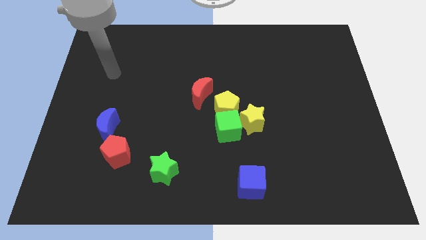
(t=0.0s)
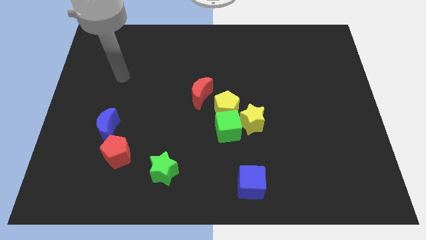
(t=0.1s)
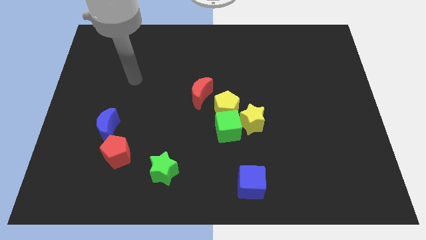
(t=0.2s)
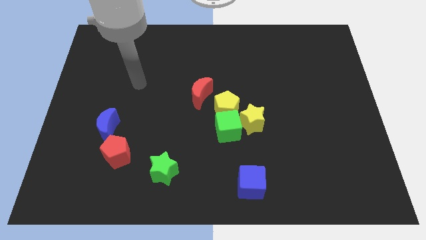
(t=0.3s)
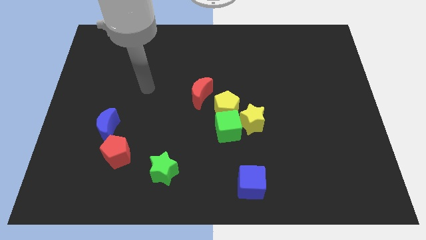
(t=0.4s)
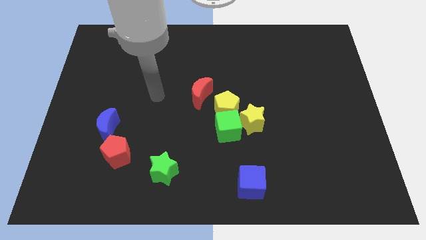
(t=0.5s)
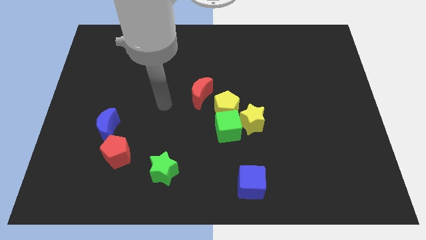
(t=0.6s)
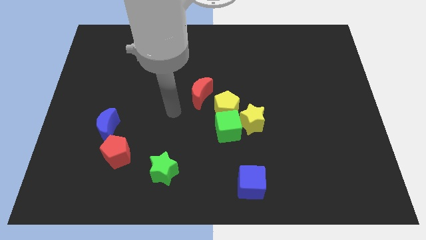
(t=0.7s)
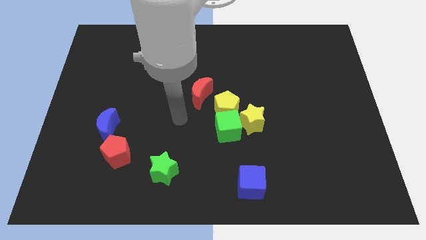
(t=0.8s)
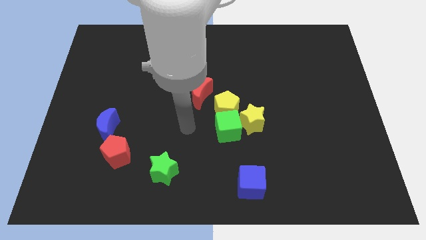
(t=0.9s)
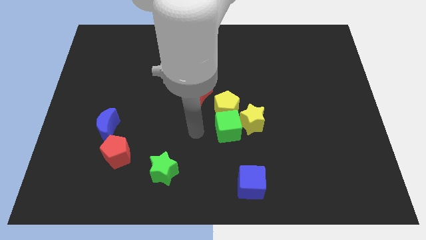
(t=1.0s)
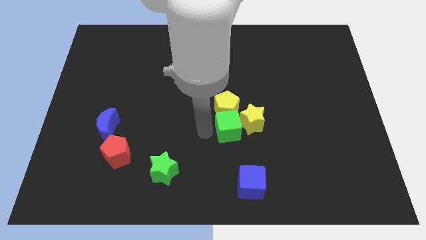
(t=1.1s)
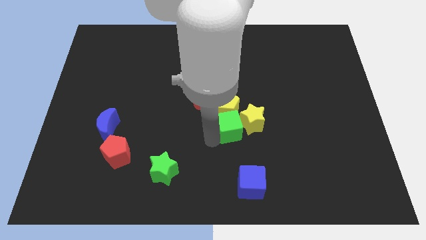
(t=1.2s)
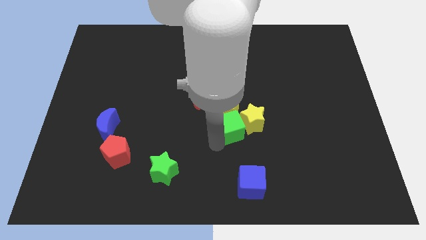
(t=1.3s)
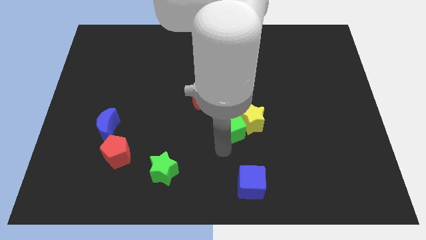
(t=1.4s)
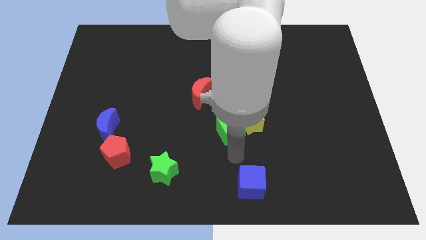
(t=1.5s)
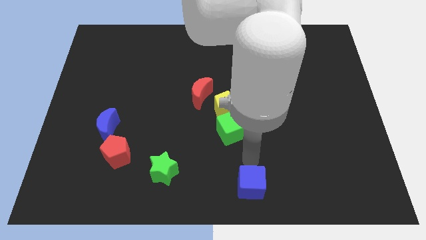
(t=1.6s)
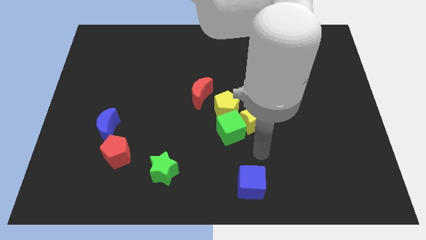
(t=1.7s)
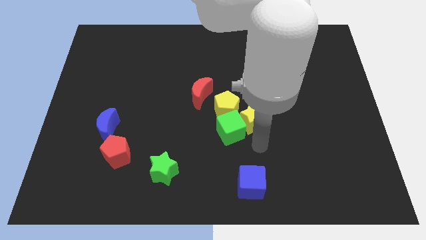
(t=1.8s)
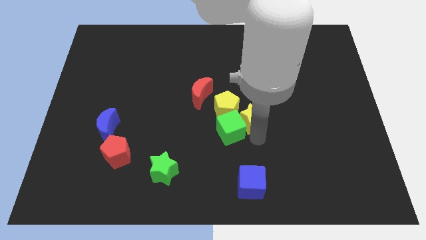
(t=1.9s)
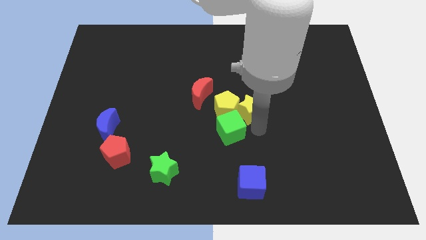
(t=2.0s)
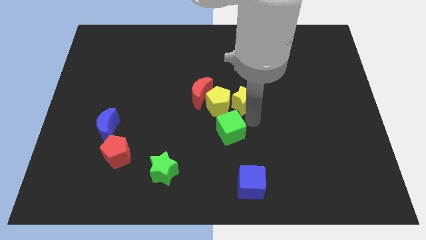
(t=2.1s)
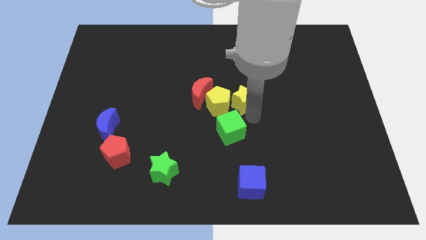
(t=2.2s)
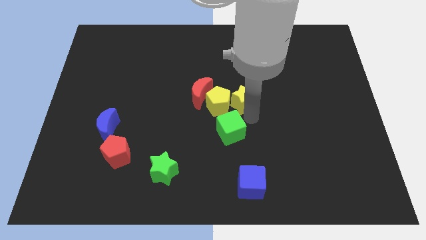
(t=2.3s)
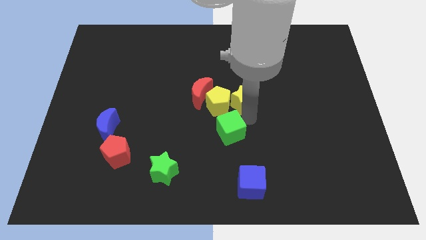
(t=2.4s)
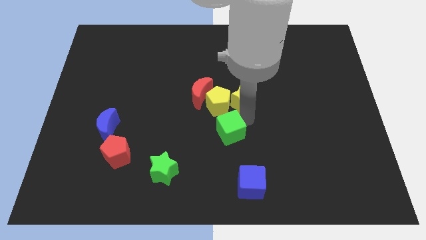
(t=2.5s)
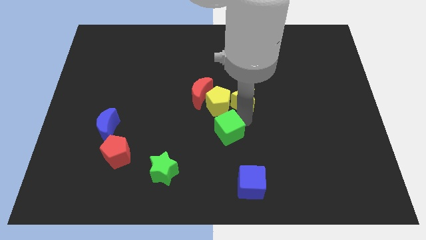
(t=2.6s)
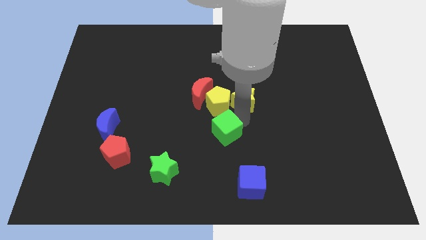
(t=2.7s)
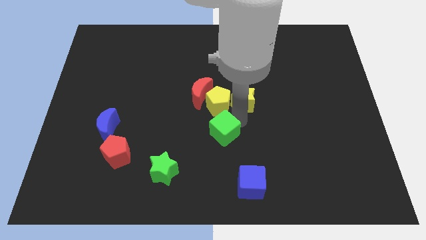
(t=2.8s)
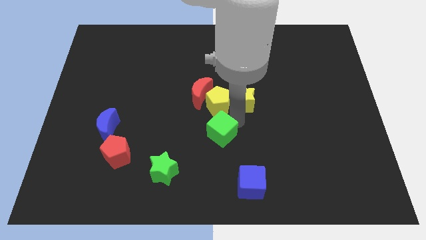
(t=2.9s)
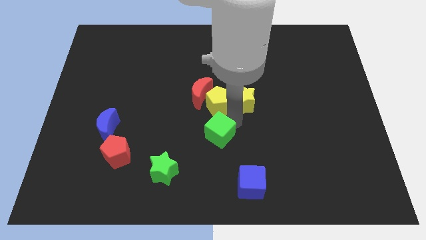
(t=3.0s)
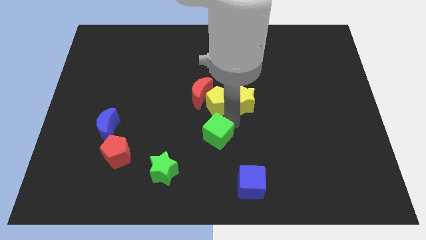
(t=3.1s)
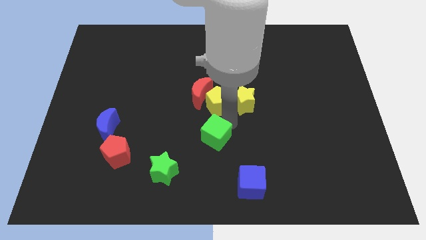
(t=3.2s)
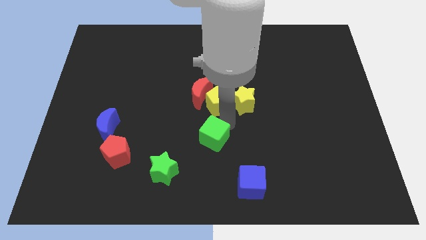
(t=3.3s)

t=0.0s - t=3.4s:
move the green cube away from the yellow pentagon and yellow star

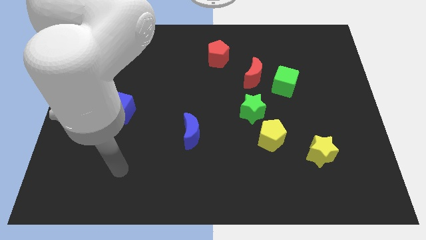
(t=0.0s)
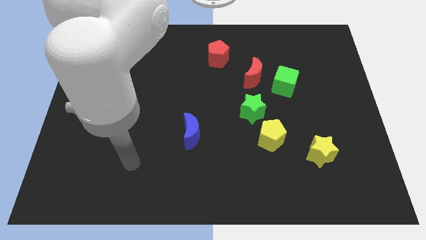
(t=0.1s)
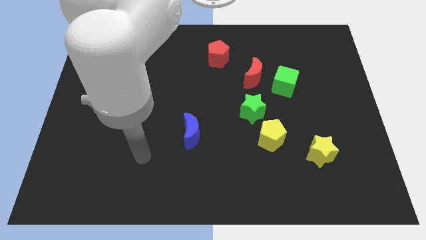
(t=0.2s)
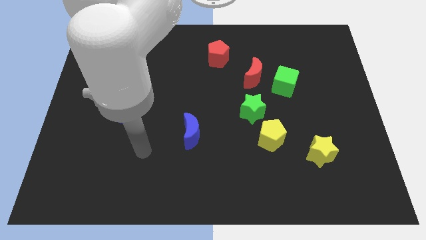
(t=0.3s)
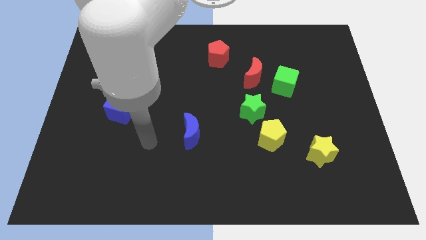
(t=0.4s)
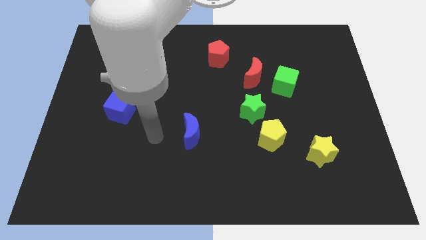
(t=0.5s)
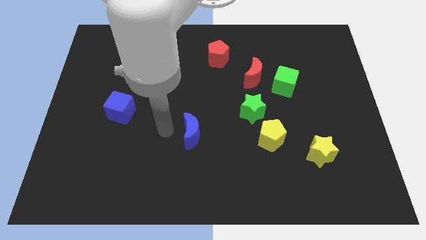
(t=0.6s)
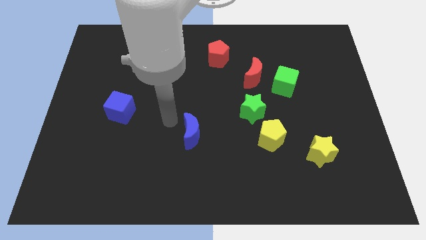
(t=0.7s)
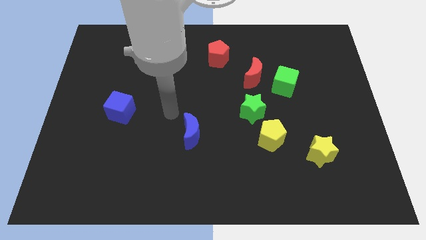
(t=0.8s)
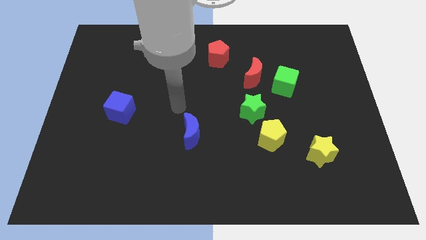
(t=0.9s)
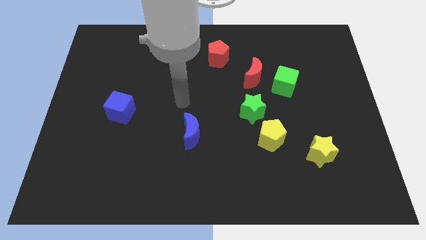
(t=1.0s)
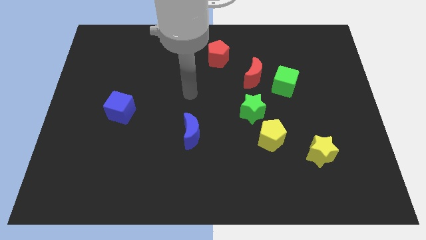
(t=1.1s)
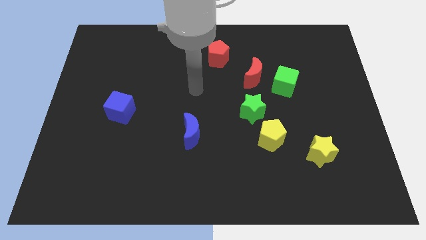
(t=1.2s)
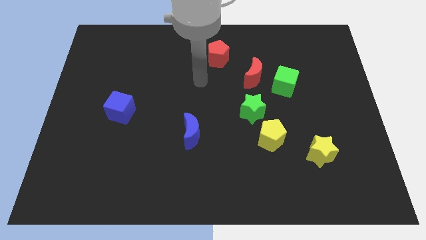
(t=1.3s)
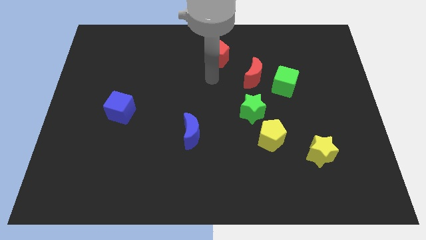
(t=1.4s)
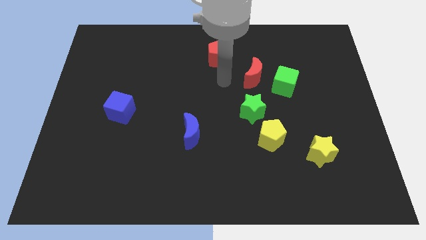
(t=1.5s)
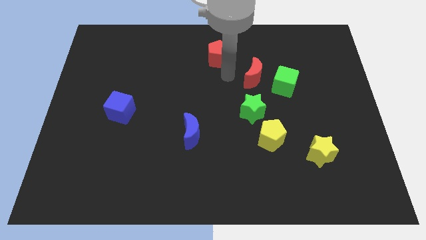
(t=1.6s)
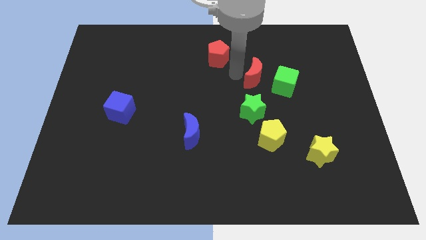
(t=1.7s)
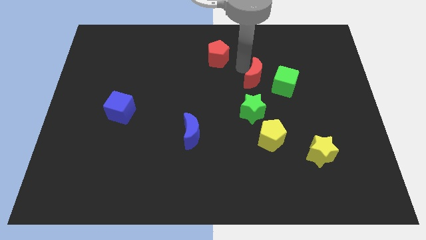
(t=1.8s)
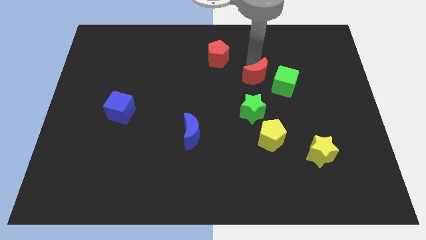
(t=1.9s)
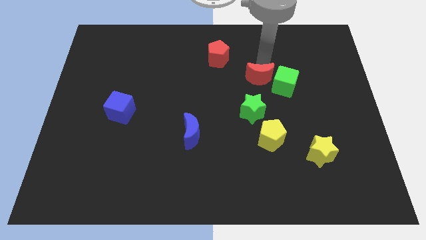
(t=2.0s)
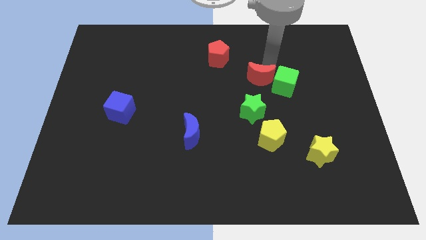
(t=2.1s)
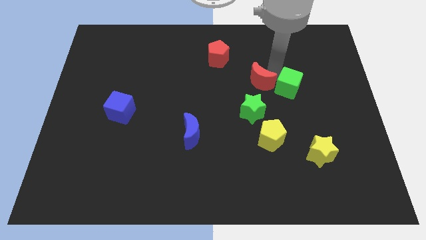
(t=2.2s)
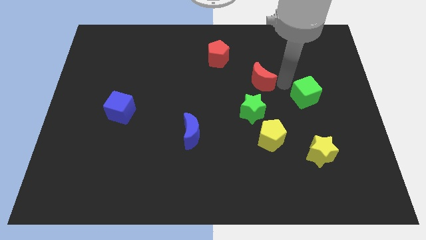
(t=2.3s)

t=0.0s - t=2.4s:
pull the red moon apart from the green cube

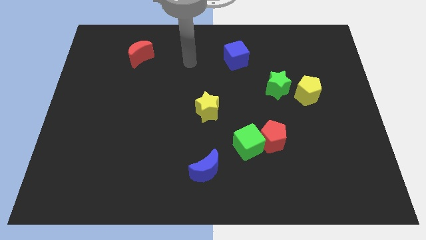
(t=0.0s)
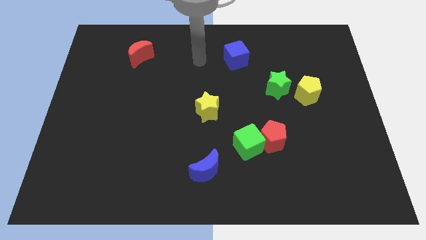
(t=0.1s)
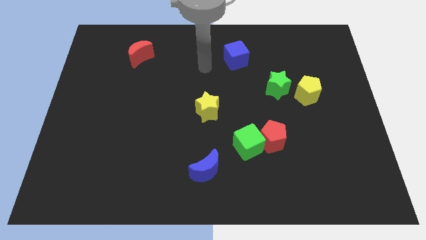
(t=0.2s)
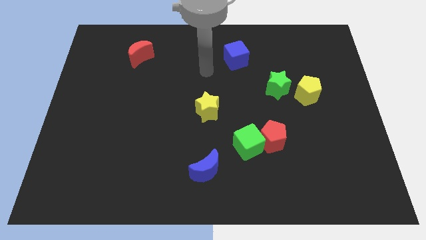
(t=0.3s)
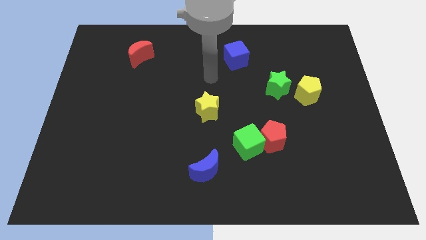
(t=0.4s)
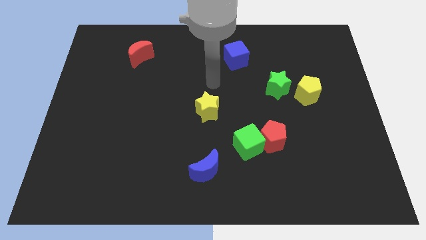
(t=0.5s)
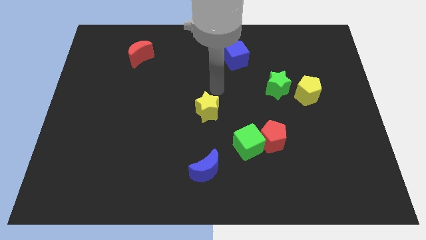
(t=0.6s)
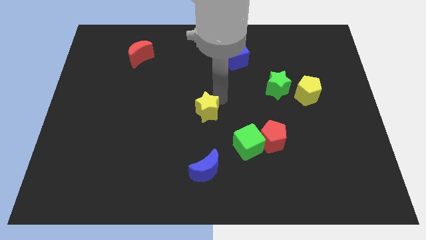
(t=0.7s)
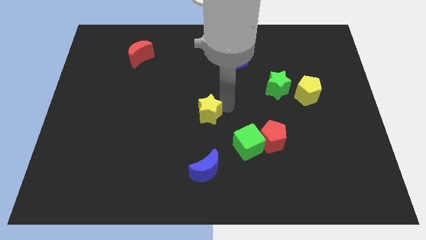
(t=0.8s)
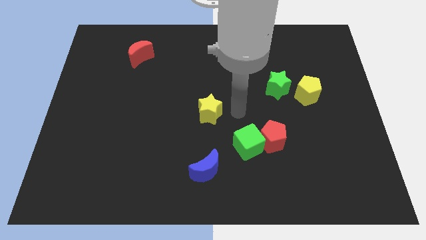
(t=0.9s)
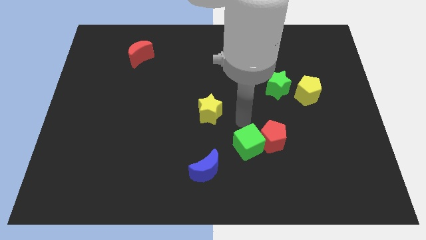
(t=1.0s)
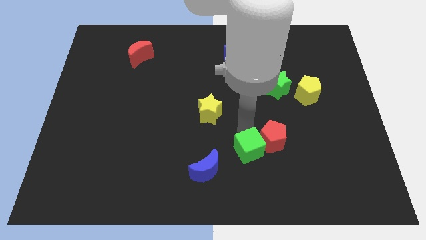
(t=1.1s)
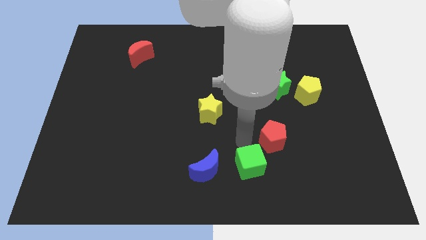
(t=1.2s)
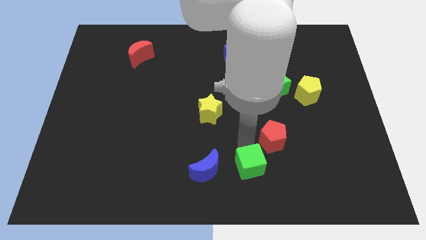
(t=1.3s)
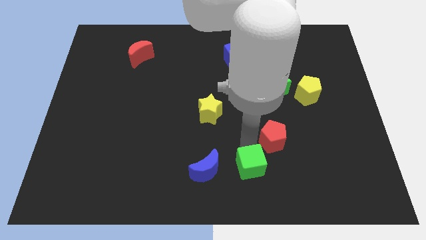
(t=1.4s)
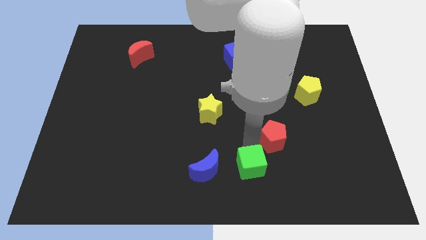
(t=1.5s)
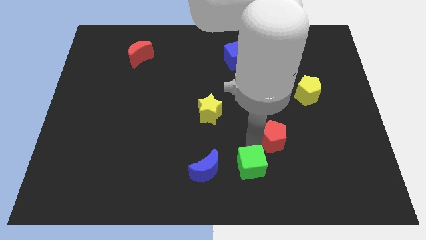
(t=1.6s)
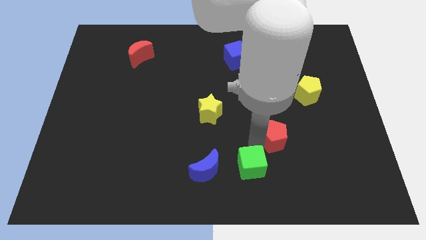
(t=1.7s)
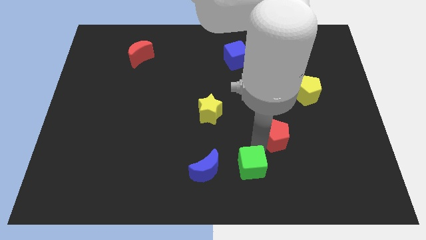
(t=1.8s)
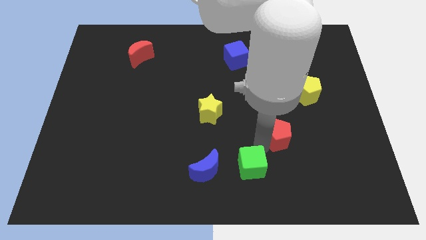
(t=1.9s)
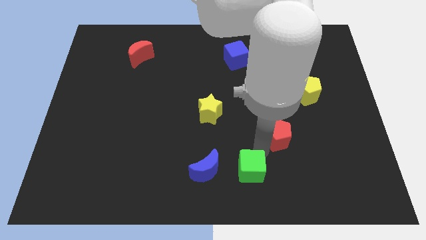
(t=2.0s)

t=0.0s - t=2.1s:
separate the red pentagon from the green cube

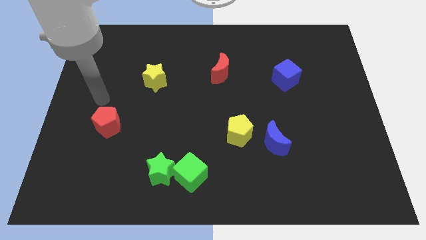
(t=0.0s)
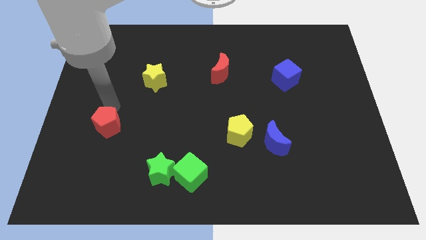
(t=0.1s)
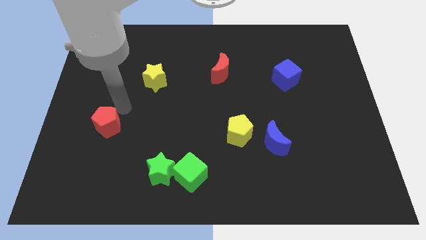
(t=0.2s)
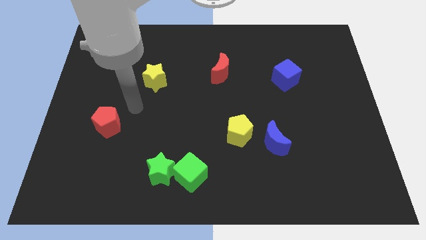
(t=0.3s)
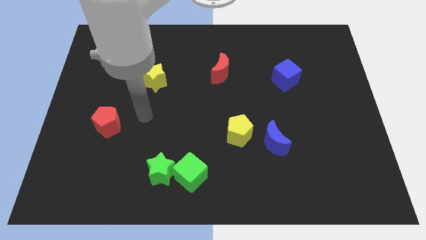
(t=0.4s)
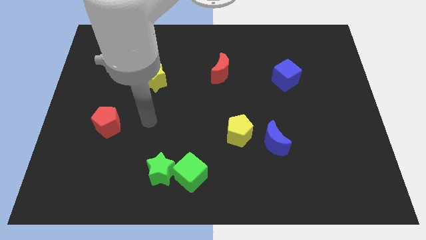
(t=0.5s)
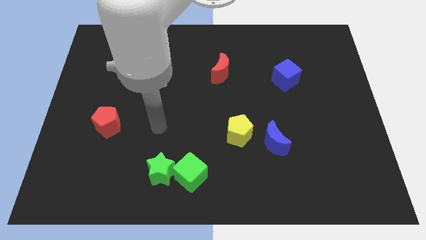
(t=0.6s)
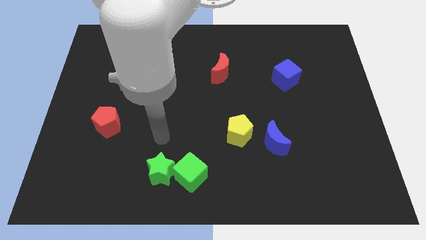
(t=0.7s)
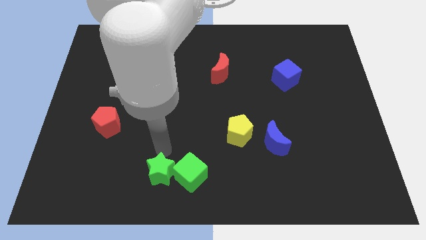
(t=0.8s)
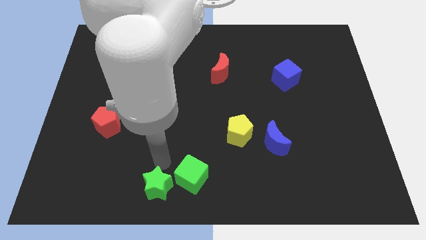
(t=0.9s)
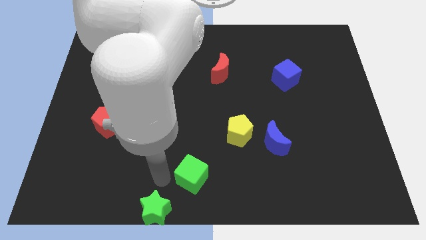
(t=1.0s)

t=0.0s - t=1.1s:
move the green cube away from the green star

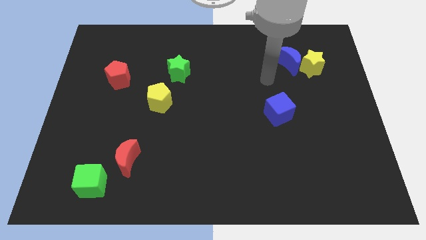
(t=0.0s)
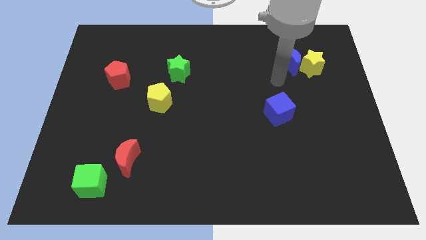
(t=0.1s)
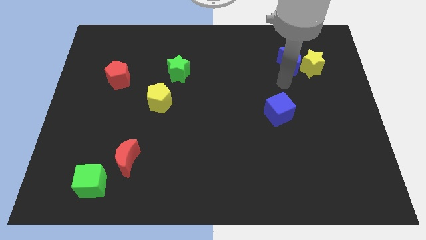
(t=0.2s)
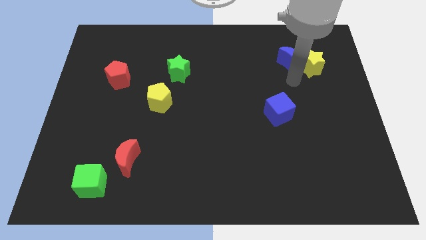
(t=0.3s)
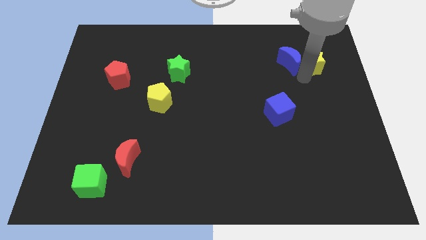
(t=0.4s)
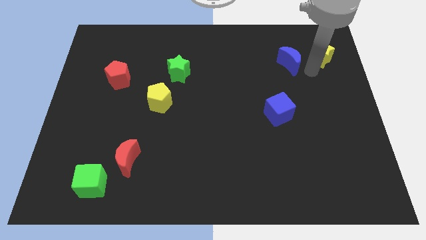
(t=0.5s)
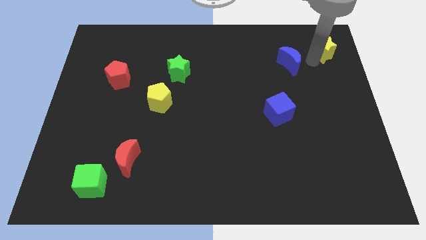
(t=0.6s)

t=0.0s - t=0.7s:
pull the blue moon apart from the yellow star
